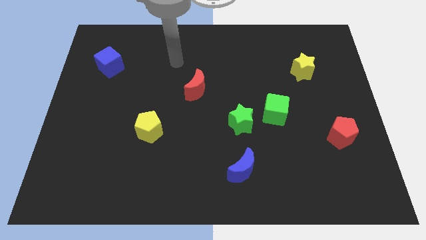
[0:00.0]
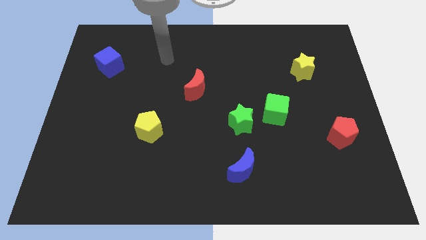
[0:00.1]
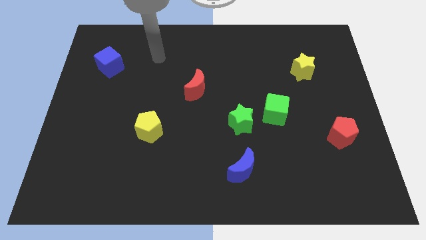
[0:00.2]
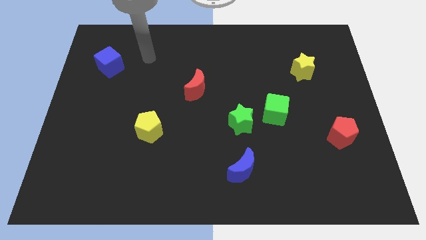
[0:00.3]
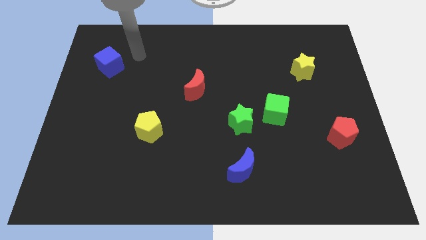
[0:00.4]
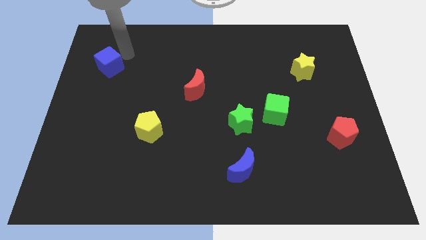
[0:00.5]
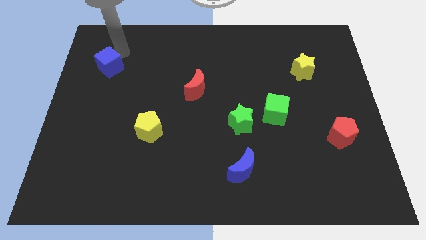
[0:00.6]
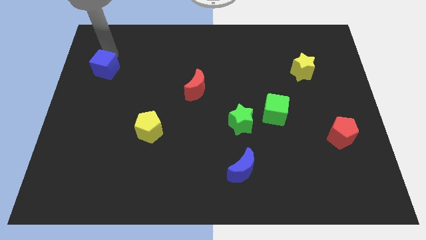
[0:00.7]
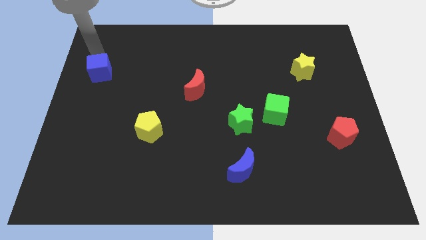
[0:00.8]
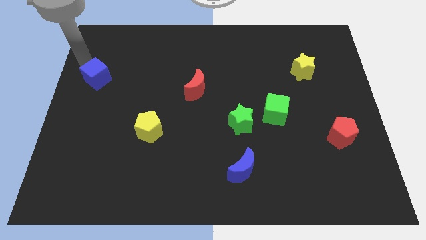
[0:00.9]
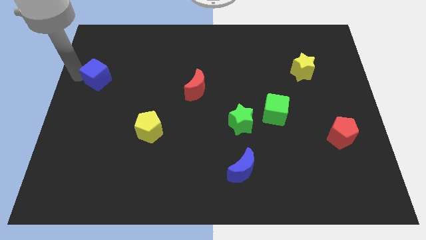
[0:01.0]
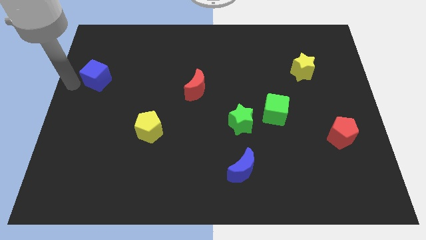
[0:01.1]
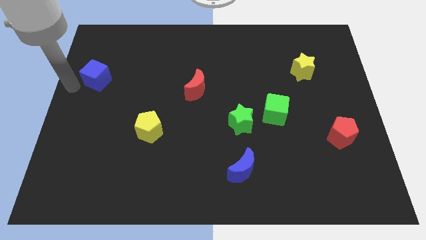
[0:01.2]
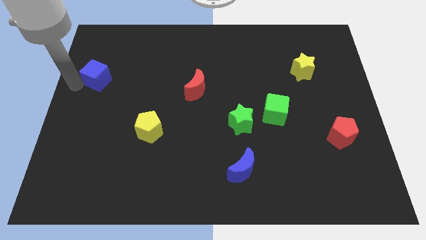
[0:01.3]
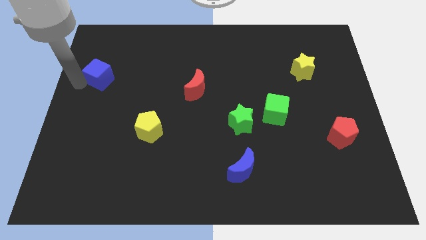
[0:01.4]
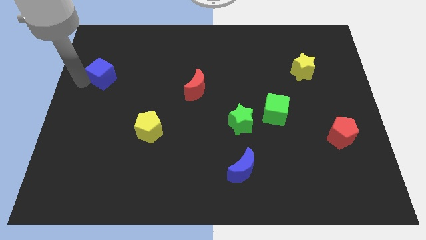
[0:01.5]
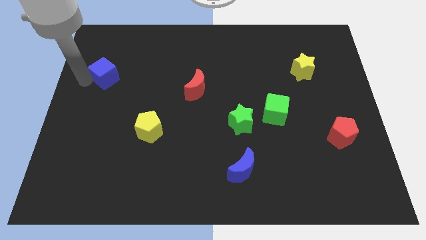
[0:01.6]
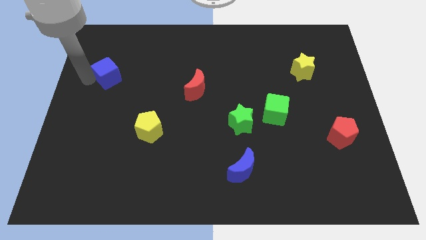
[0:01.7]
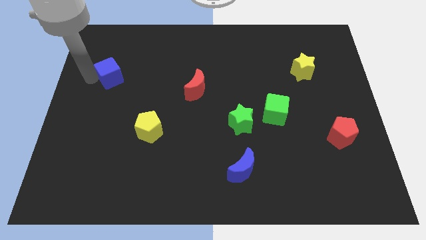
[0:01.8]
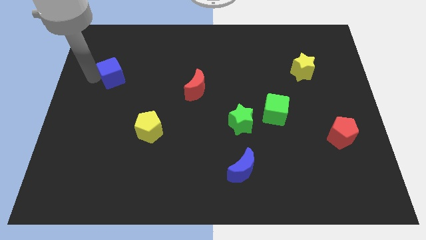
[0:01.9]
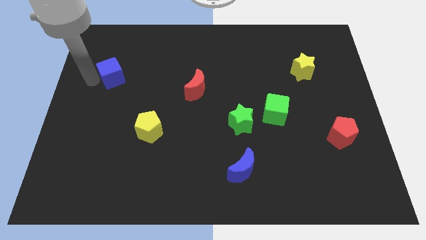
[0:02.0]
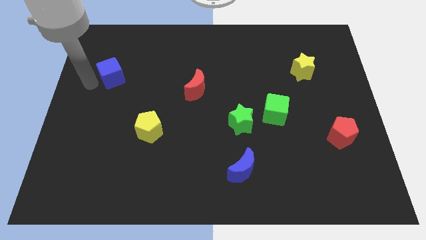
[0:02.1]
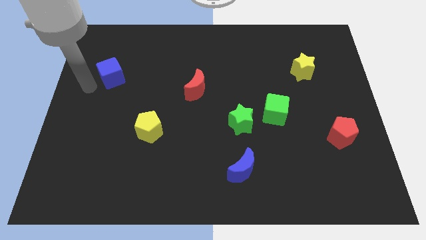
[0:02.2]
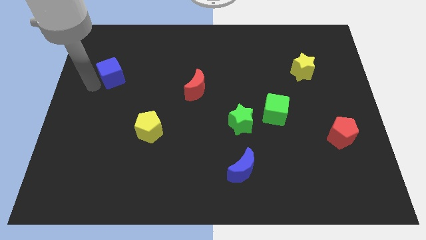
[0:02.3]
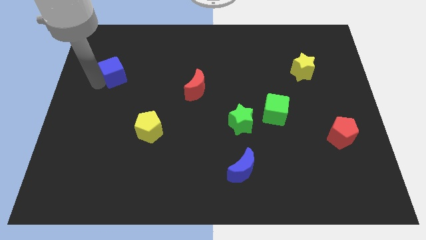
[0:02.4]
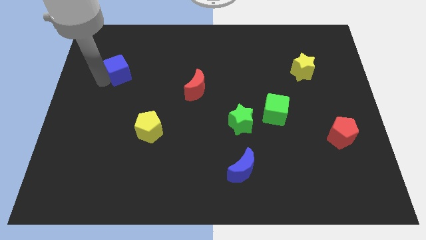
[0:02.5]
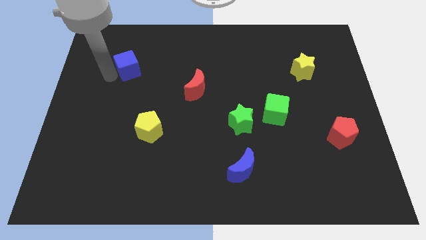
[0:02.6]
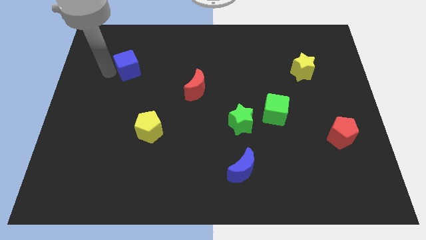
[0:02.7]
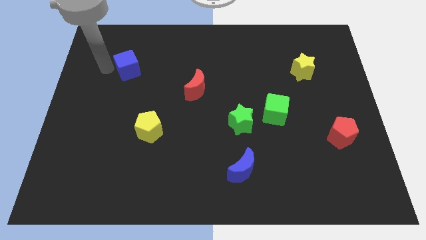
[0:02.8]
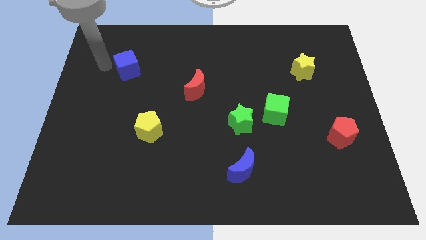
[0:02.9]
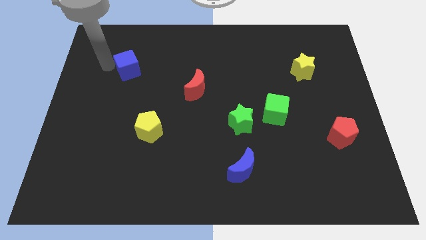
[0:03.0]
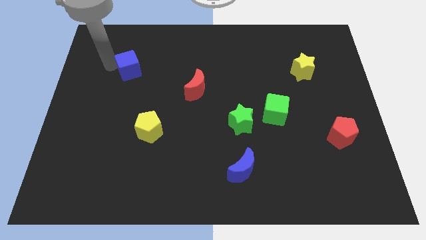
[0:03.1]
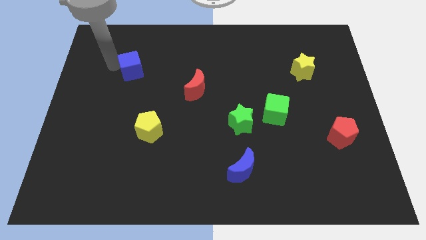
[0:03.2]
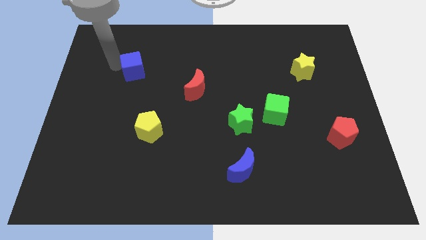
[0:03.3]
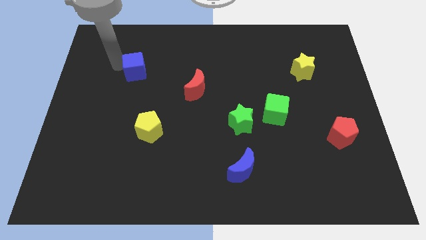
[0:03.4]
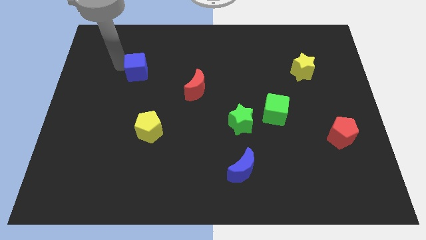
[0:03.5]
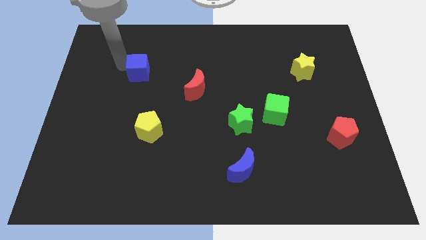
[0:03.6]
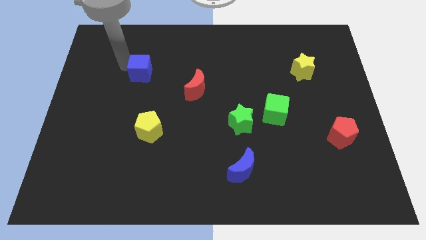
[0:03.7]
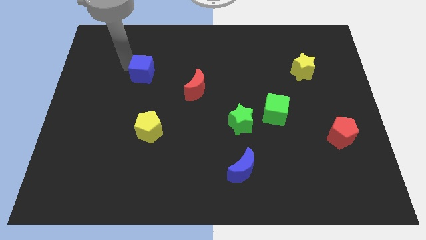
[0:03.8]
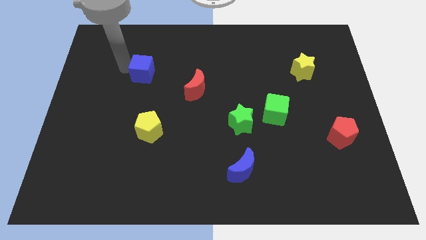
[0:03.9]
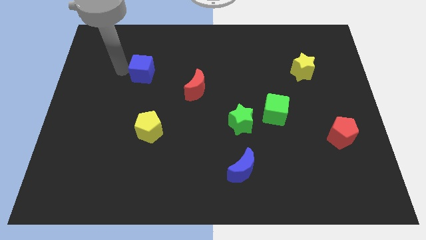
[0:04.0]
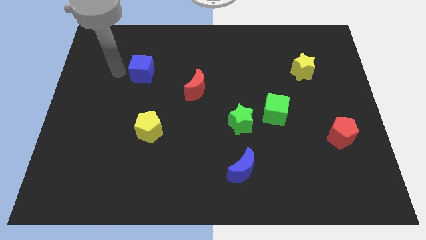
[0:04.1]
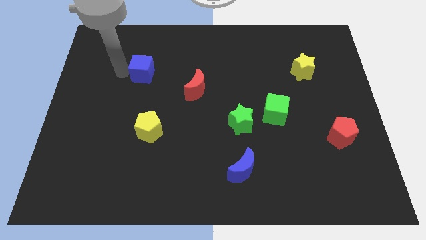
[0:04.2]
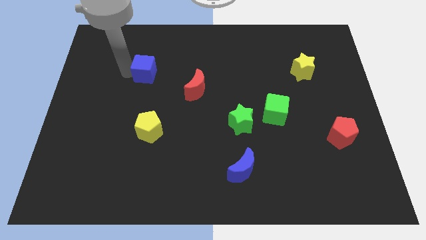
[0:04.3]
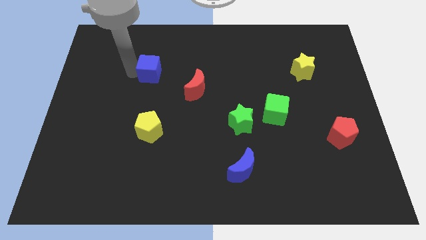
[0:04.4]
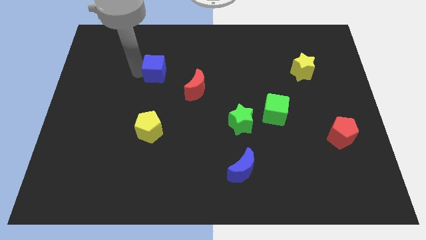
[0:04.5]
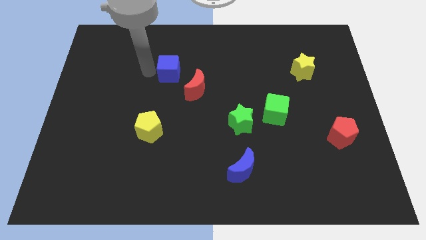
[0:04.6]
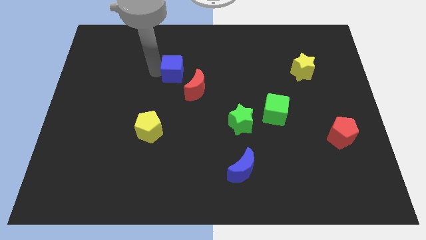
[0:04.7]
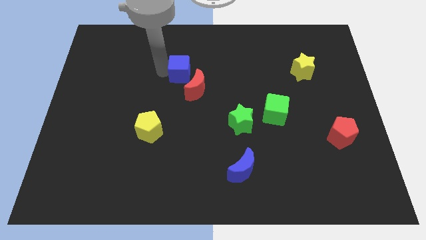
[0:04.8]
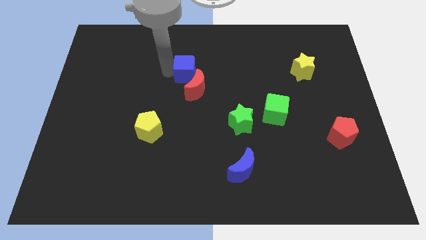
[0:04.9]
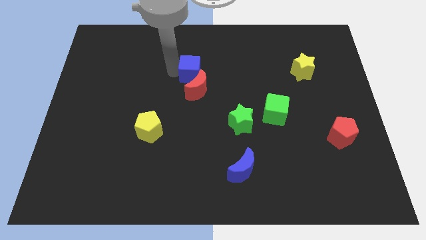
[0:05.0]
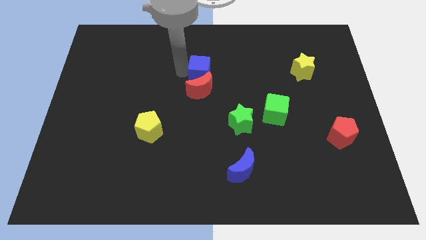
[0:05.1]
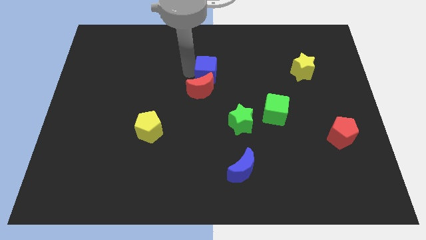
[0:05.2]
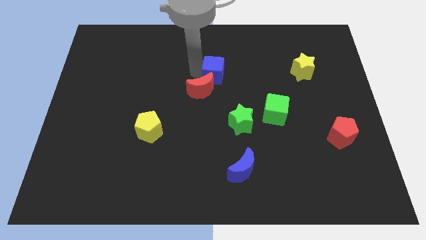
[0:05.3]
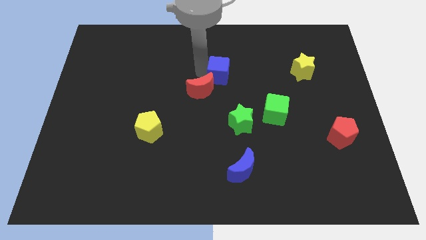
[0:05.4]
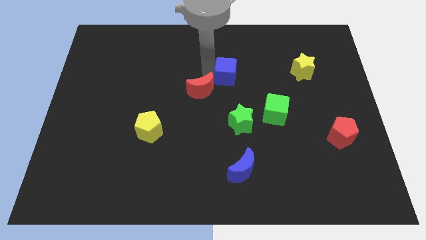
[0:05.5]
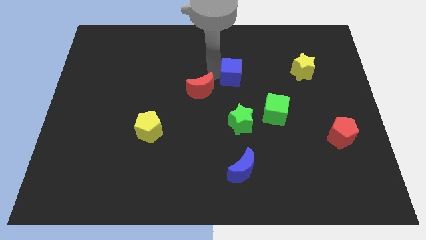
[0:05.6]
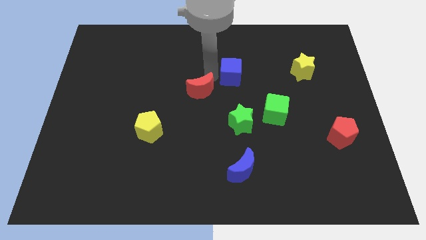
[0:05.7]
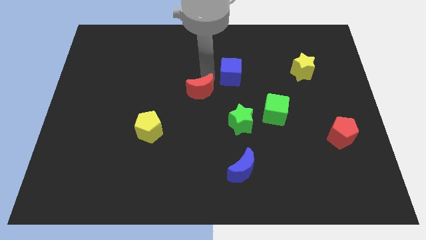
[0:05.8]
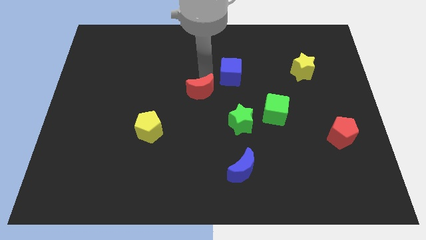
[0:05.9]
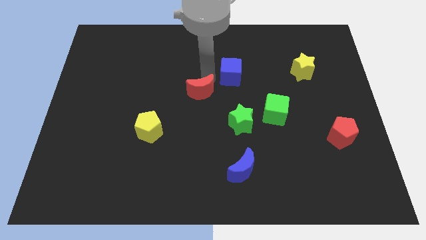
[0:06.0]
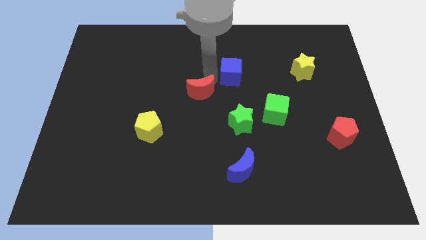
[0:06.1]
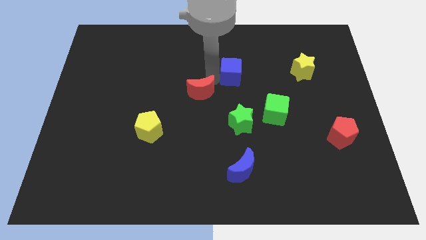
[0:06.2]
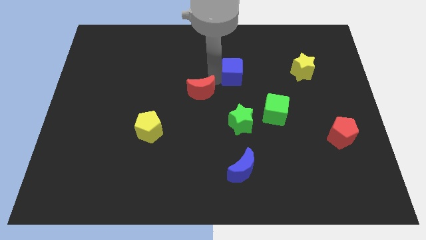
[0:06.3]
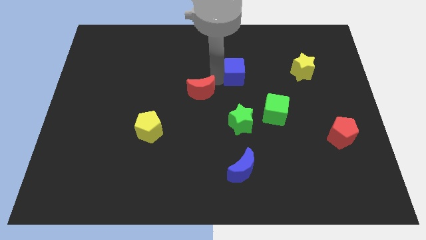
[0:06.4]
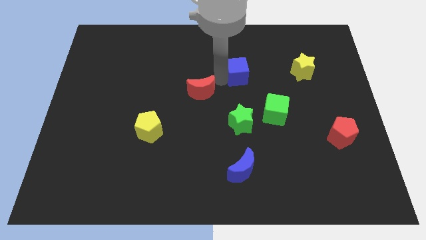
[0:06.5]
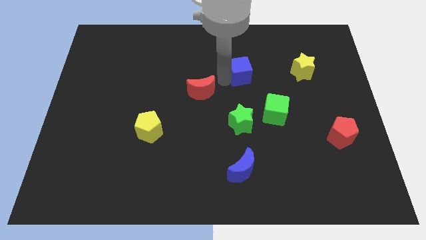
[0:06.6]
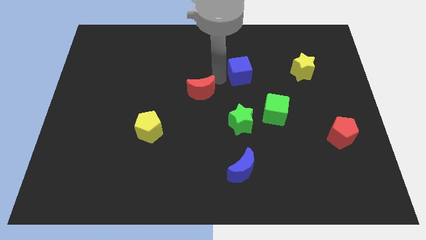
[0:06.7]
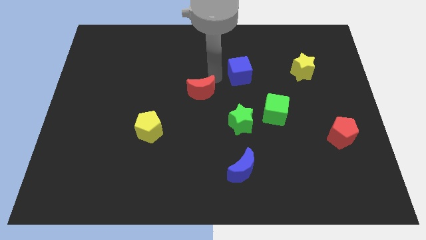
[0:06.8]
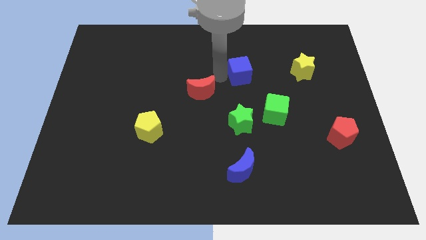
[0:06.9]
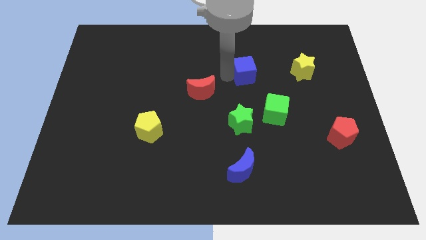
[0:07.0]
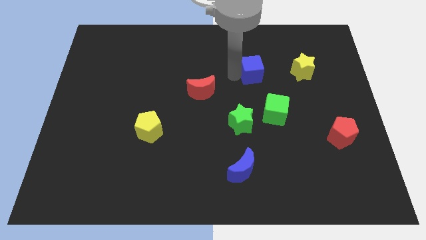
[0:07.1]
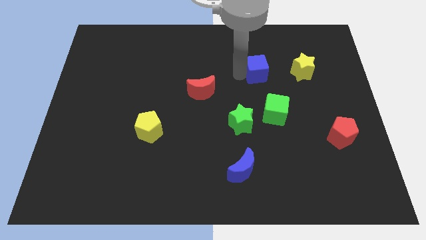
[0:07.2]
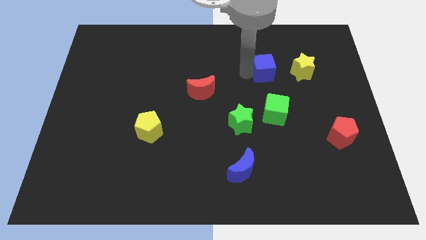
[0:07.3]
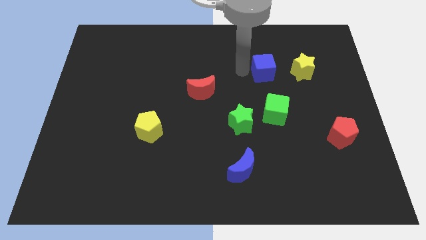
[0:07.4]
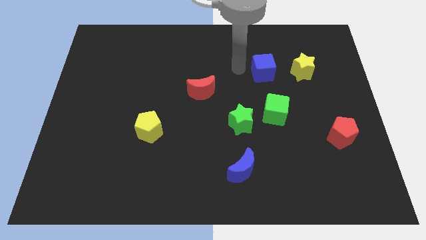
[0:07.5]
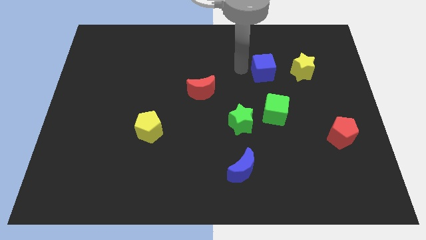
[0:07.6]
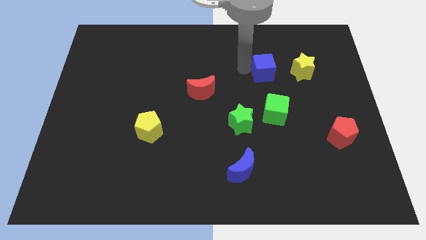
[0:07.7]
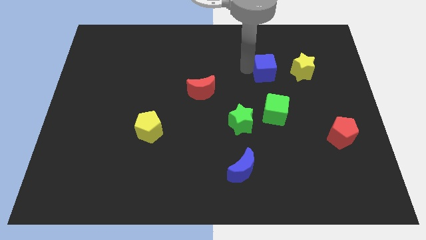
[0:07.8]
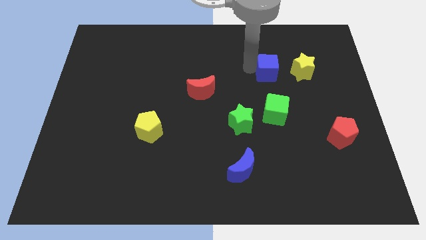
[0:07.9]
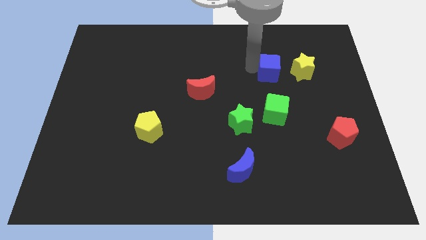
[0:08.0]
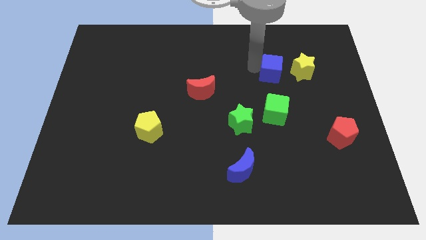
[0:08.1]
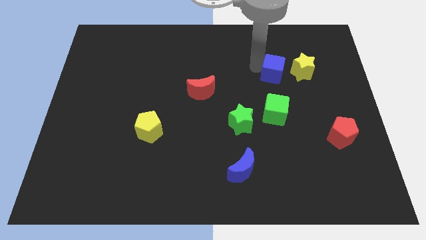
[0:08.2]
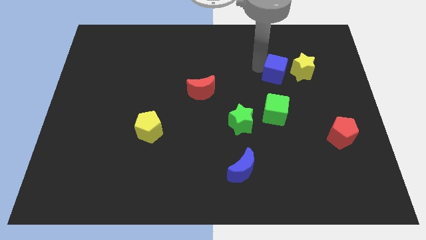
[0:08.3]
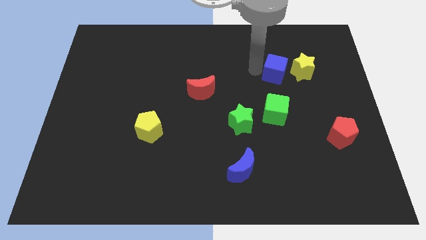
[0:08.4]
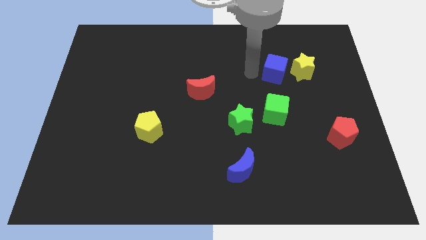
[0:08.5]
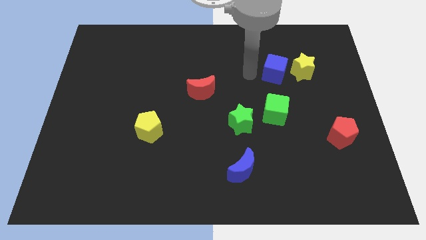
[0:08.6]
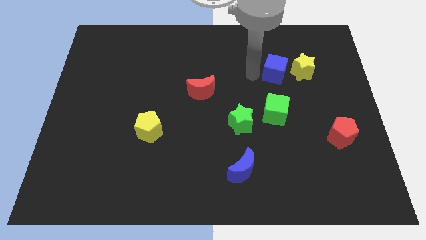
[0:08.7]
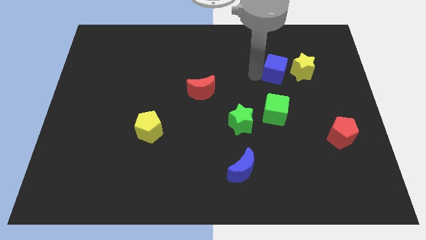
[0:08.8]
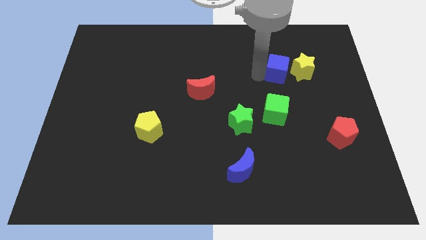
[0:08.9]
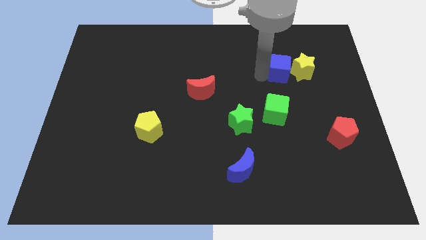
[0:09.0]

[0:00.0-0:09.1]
slide the blue cube next to the yellow star
